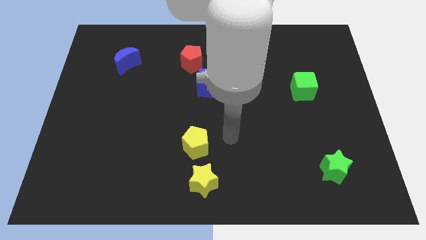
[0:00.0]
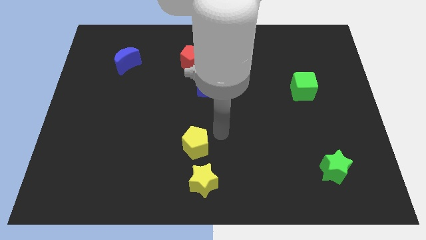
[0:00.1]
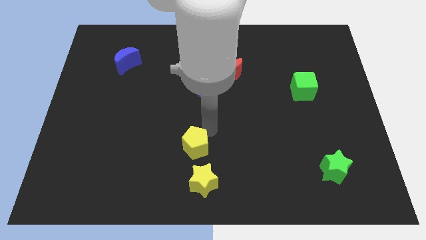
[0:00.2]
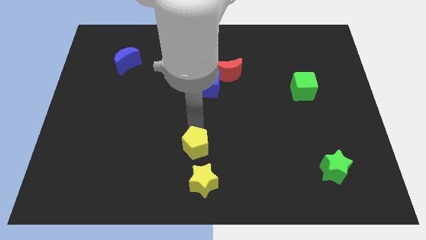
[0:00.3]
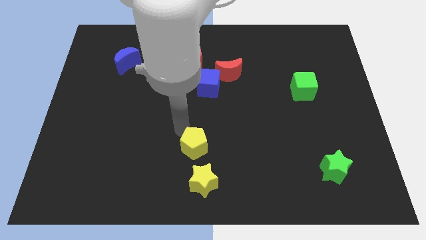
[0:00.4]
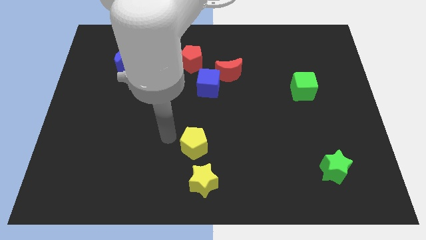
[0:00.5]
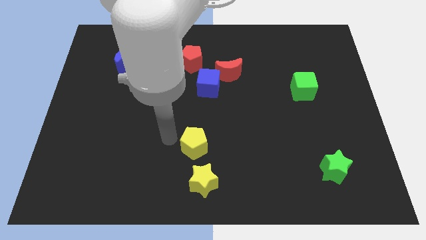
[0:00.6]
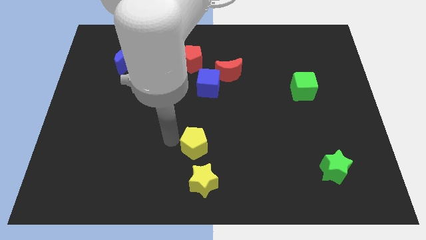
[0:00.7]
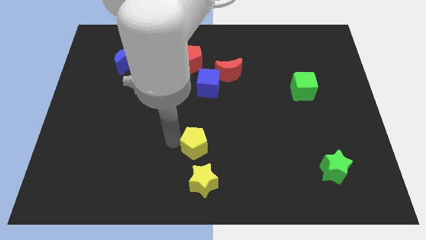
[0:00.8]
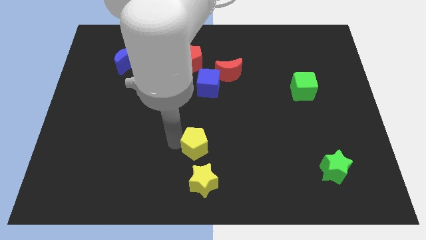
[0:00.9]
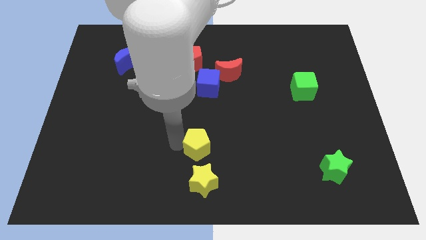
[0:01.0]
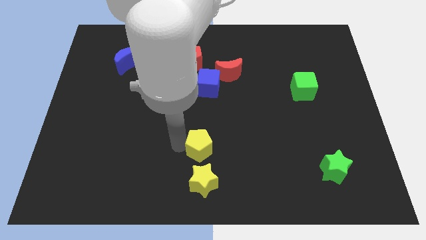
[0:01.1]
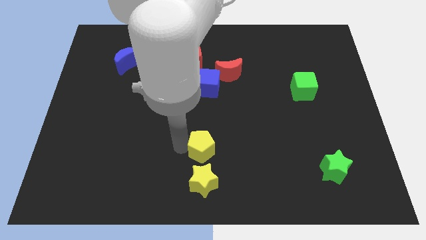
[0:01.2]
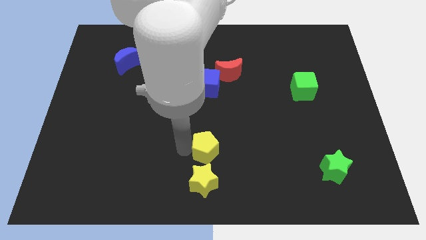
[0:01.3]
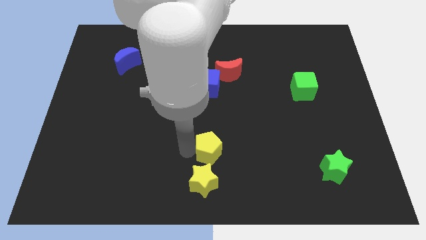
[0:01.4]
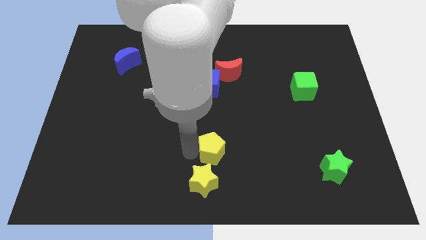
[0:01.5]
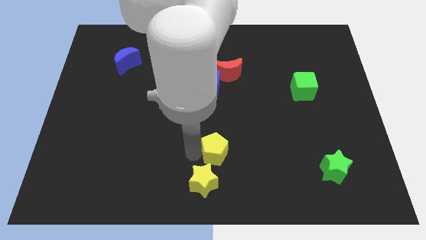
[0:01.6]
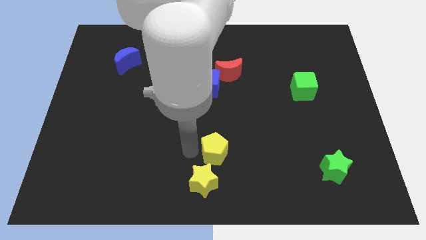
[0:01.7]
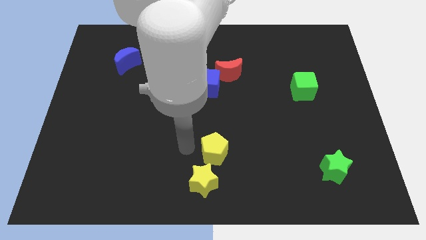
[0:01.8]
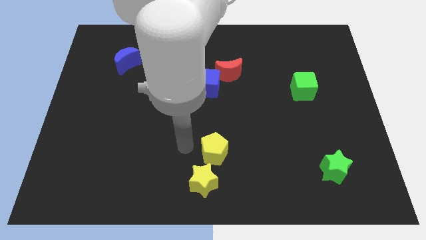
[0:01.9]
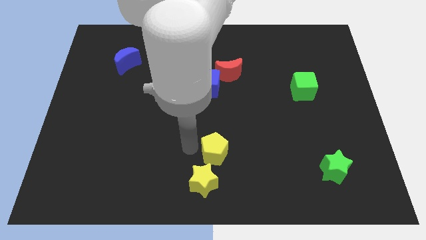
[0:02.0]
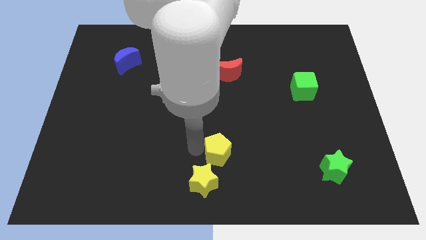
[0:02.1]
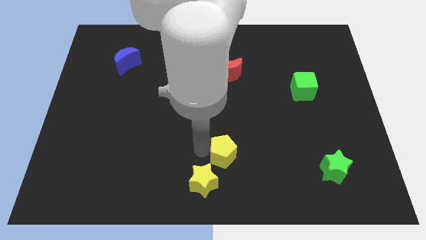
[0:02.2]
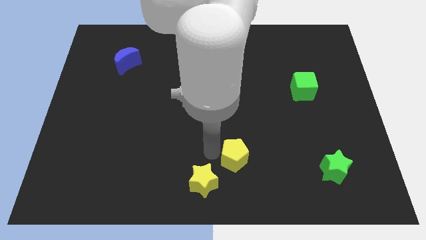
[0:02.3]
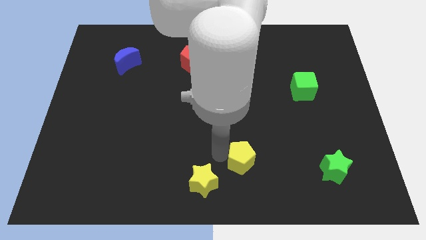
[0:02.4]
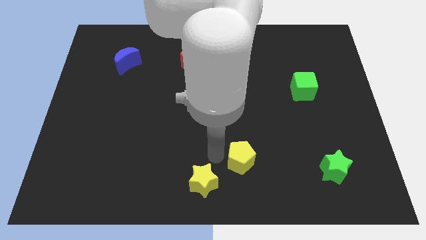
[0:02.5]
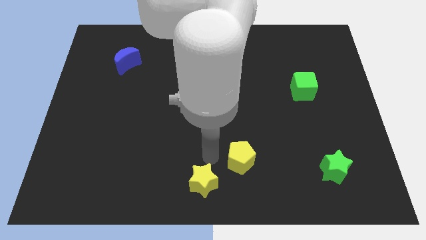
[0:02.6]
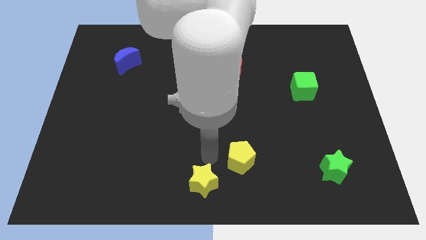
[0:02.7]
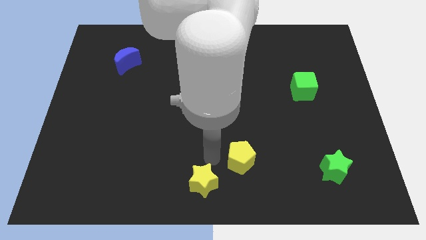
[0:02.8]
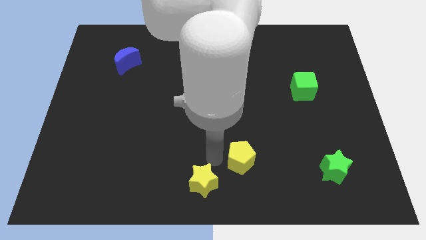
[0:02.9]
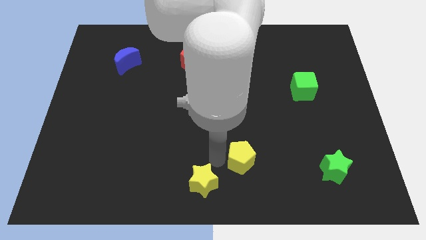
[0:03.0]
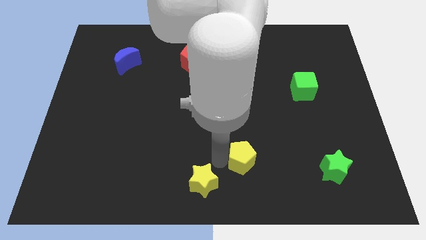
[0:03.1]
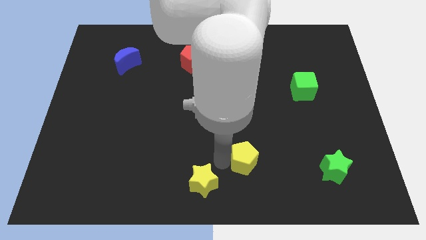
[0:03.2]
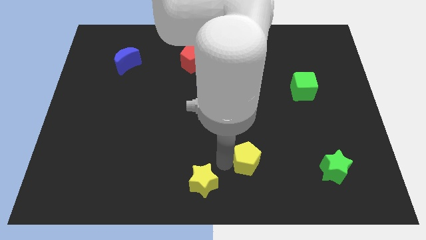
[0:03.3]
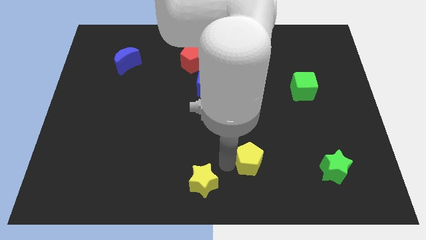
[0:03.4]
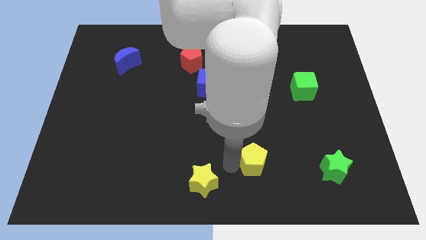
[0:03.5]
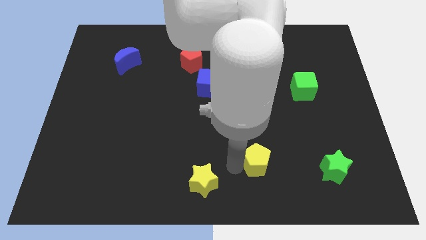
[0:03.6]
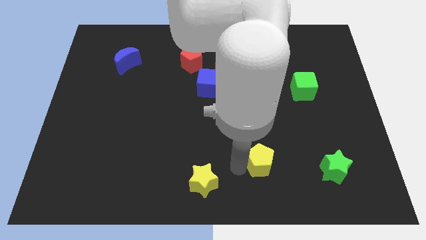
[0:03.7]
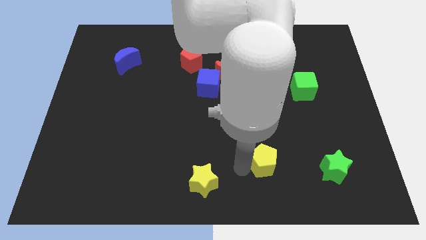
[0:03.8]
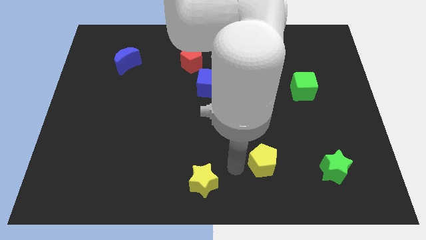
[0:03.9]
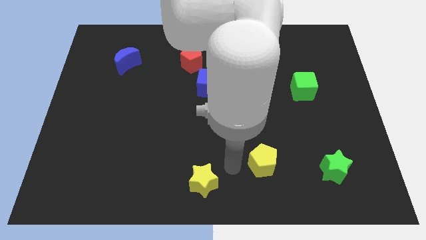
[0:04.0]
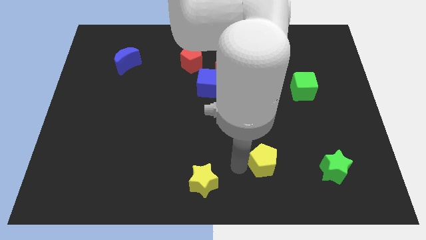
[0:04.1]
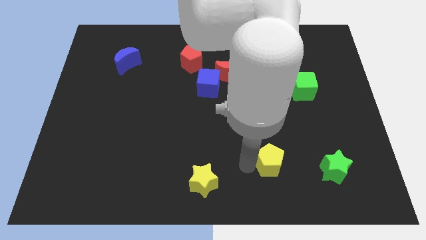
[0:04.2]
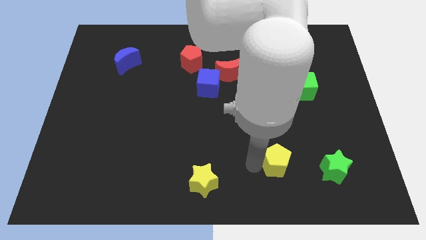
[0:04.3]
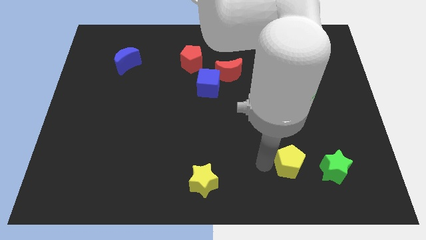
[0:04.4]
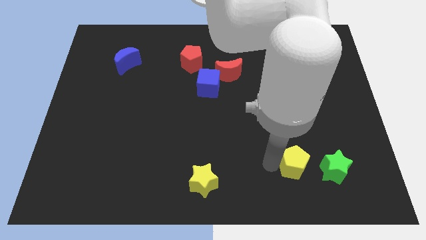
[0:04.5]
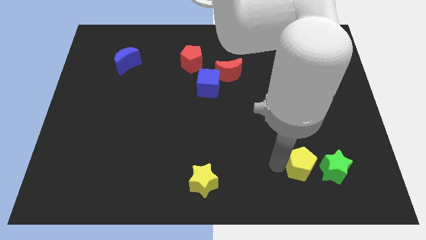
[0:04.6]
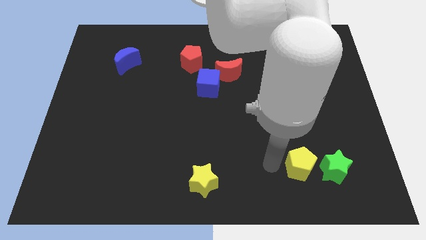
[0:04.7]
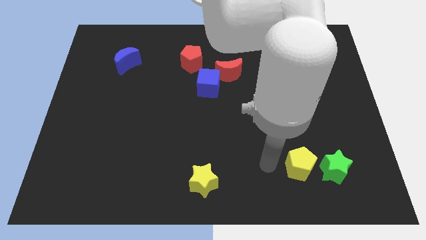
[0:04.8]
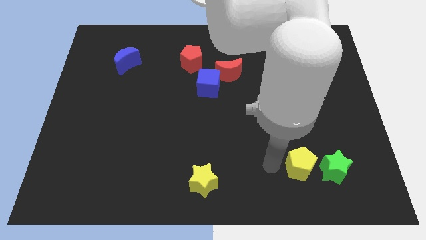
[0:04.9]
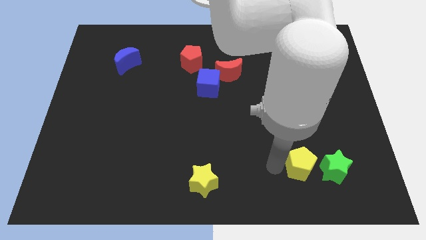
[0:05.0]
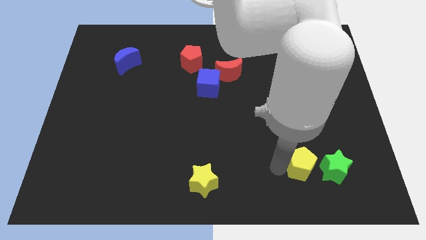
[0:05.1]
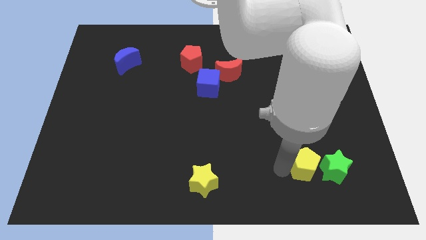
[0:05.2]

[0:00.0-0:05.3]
put the yellow pentagon towards the green star

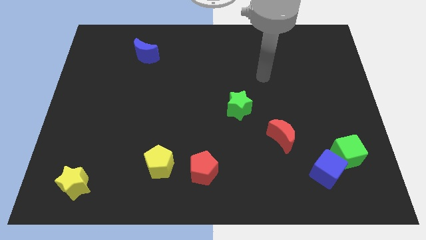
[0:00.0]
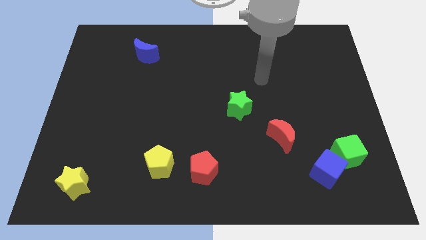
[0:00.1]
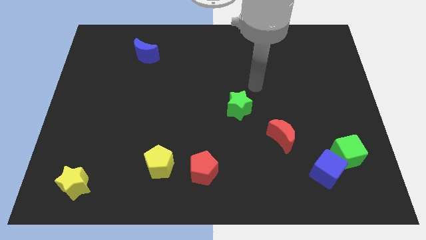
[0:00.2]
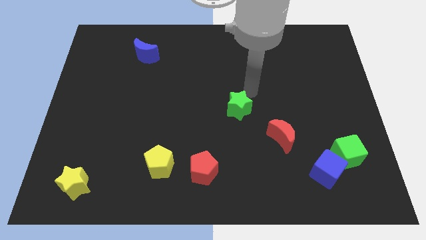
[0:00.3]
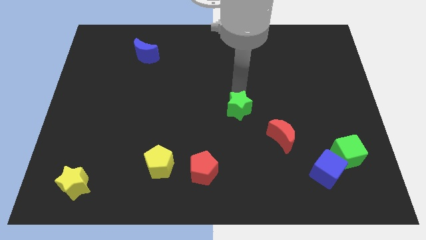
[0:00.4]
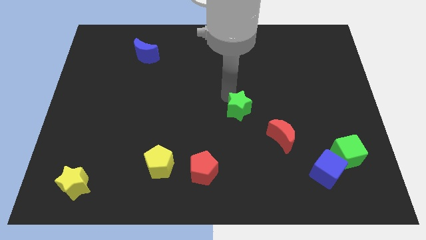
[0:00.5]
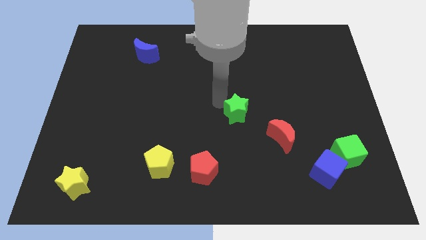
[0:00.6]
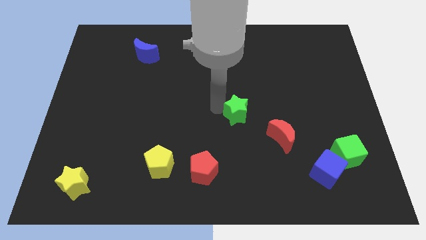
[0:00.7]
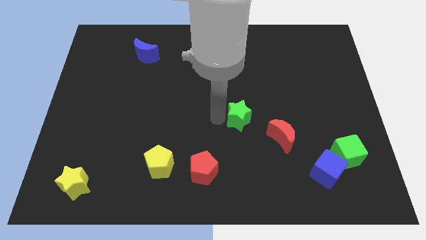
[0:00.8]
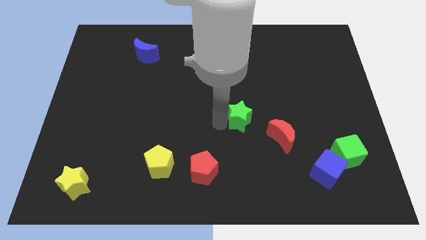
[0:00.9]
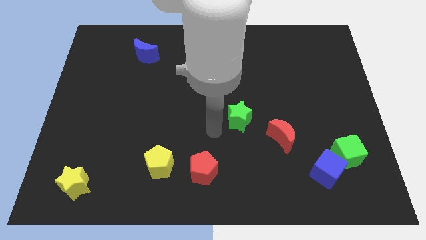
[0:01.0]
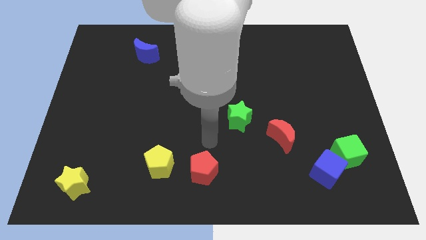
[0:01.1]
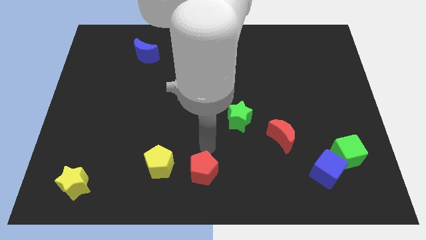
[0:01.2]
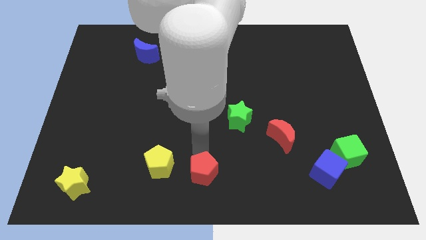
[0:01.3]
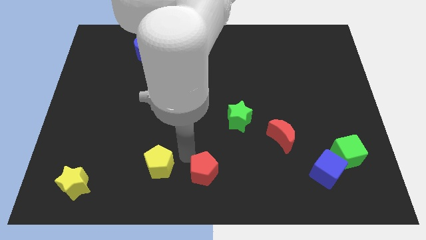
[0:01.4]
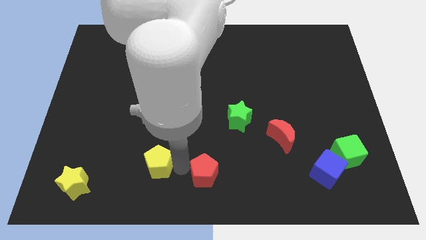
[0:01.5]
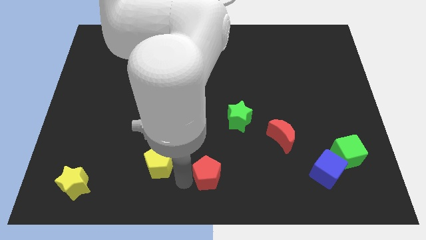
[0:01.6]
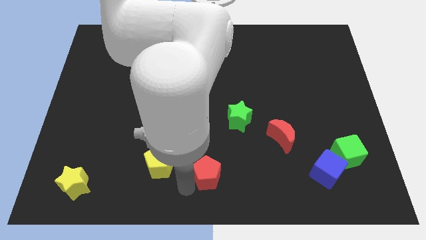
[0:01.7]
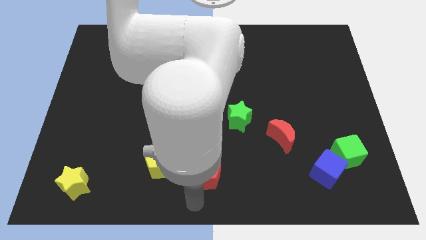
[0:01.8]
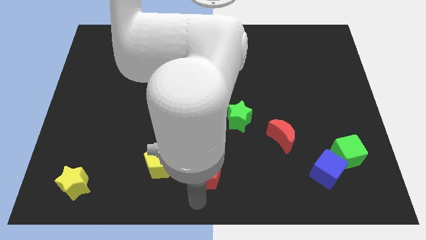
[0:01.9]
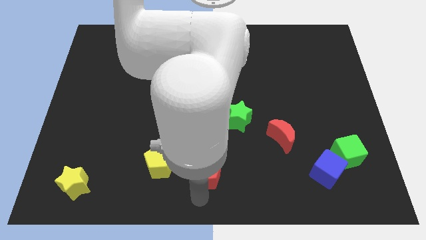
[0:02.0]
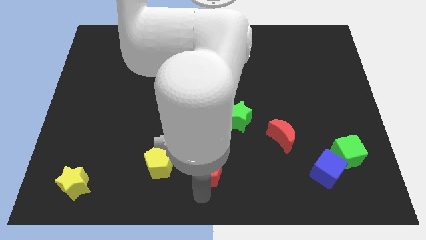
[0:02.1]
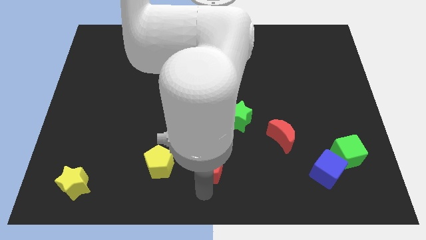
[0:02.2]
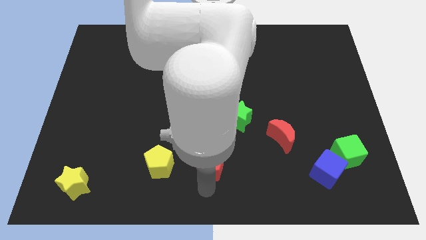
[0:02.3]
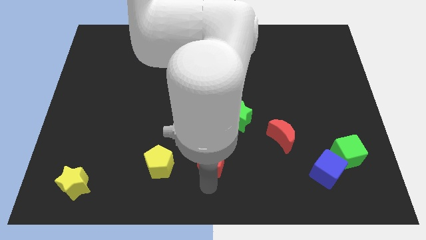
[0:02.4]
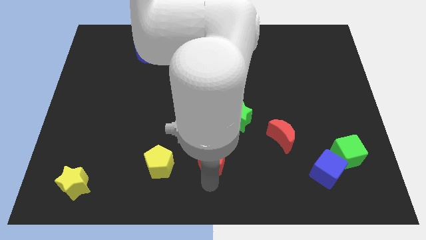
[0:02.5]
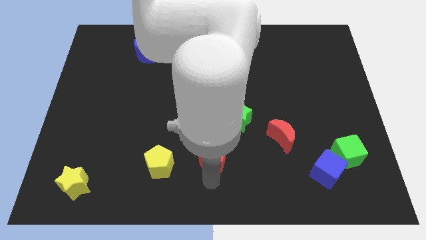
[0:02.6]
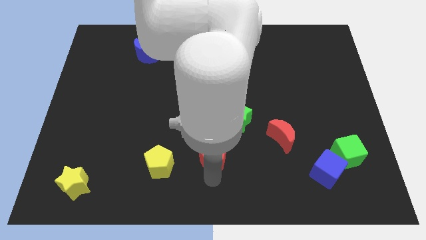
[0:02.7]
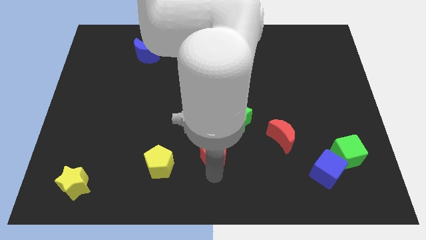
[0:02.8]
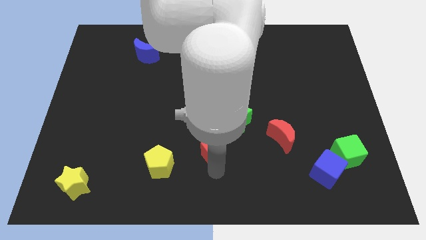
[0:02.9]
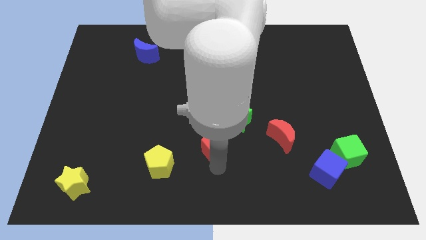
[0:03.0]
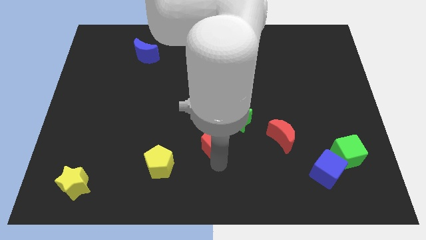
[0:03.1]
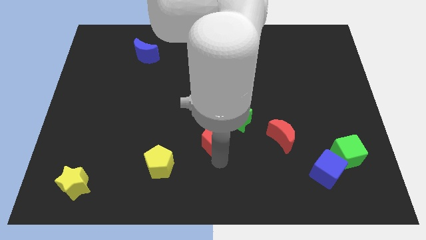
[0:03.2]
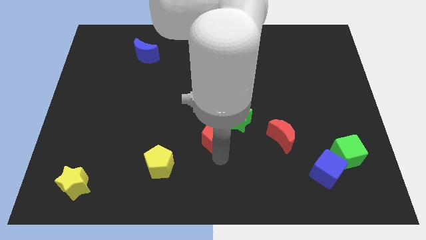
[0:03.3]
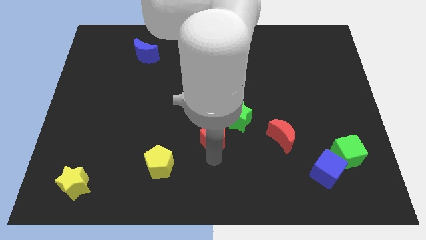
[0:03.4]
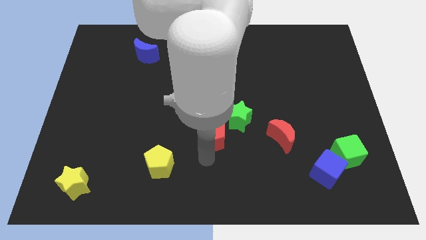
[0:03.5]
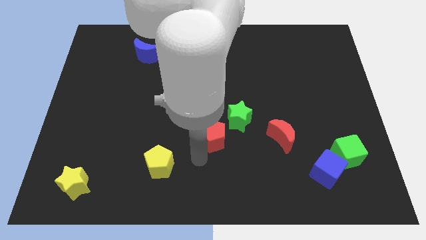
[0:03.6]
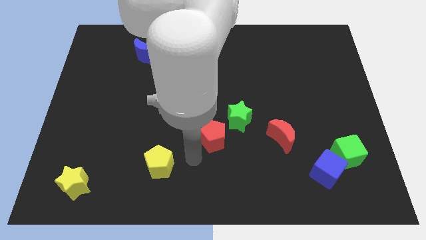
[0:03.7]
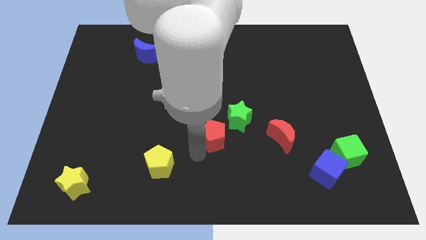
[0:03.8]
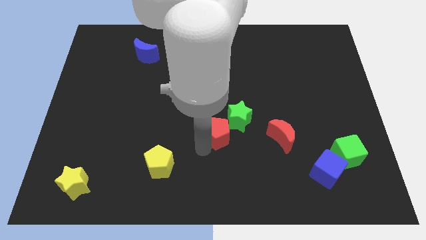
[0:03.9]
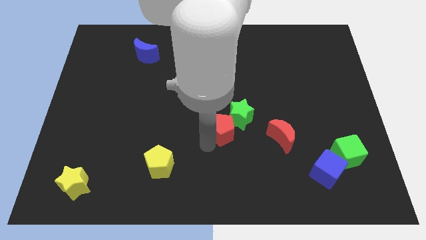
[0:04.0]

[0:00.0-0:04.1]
push the red pentagon close to the green star
